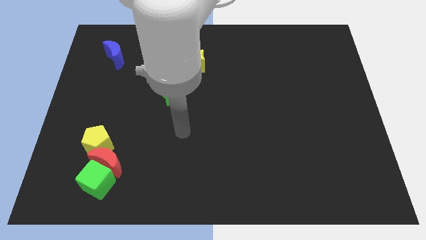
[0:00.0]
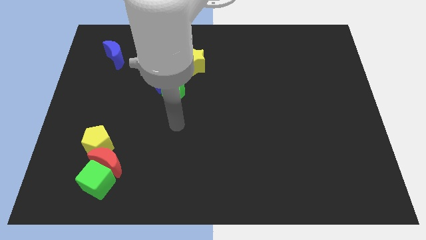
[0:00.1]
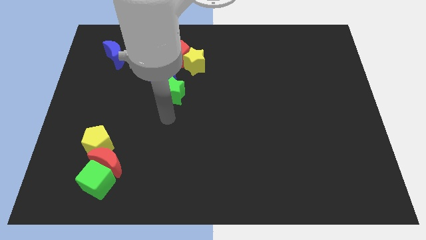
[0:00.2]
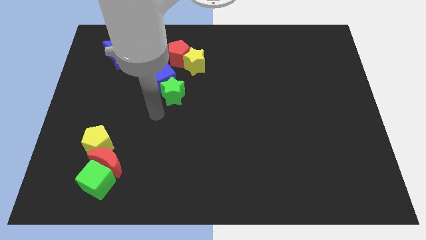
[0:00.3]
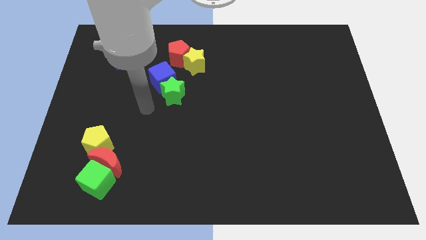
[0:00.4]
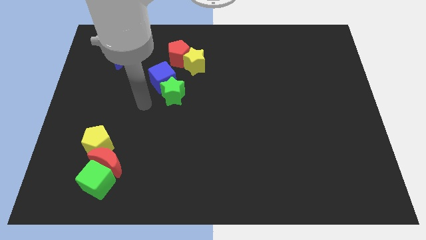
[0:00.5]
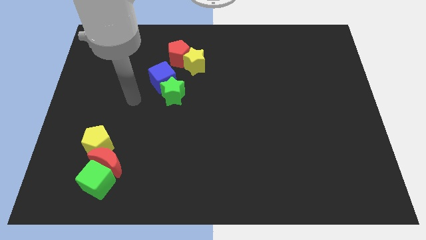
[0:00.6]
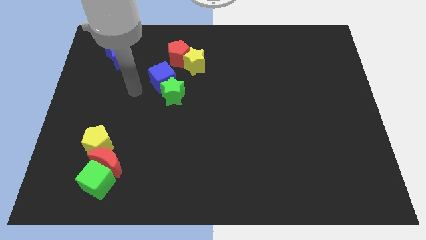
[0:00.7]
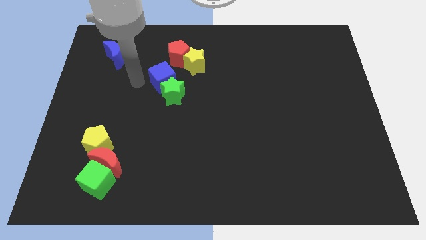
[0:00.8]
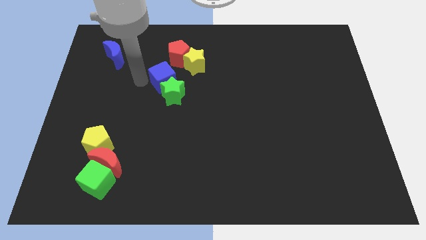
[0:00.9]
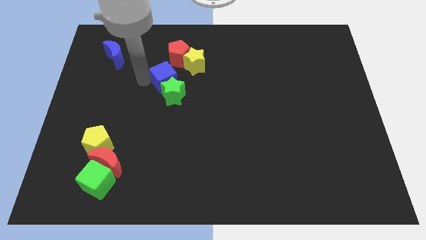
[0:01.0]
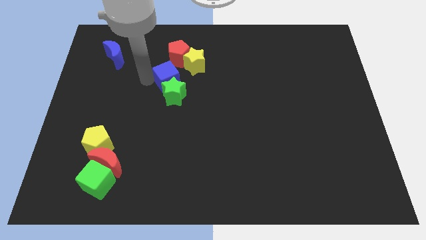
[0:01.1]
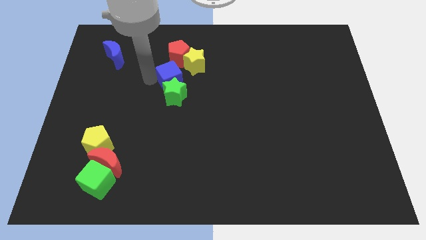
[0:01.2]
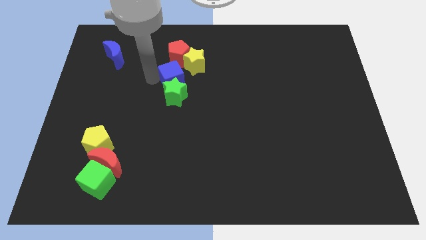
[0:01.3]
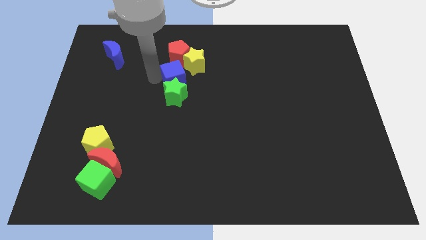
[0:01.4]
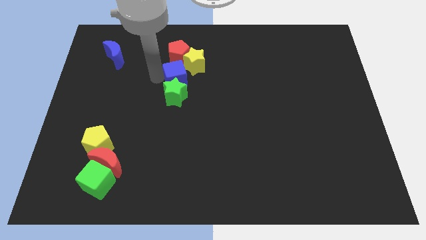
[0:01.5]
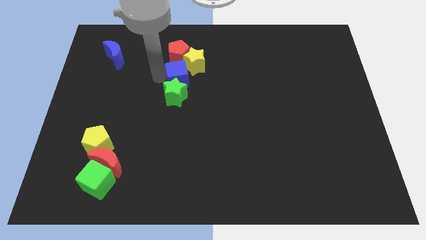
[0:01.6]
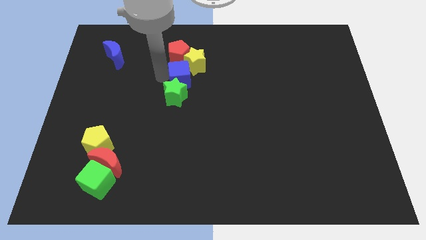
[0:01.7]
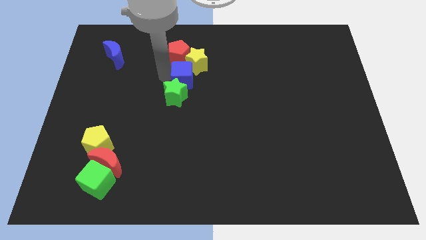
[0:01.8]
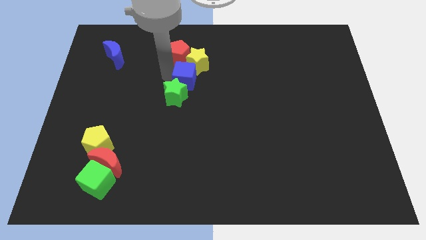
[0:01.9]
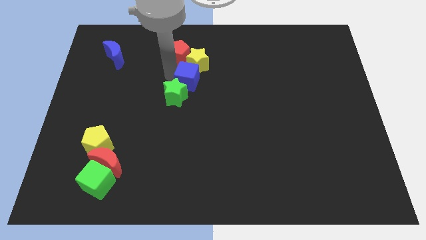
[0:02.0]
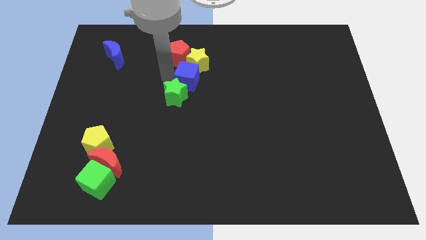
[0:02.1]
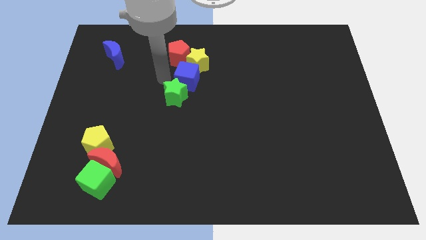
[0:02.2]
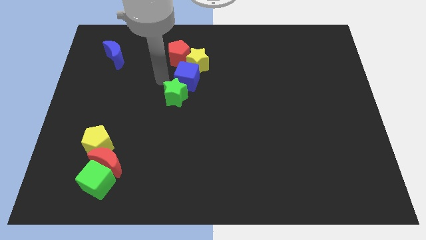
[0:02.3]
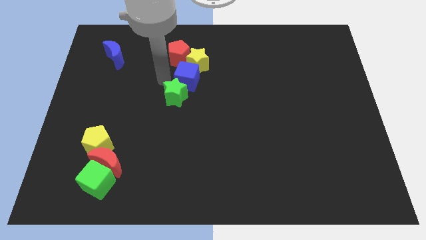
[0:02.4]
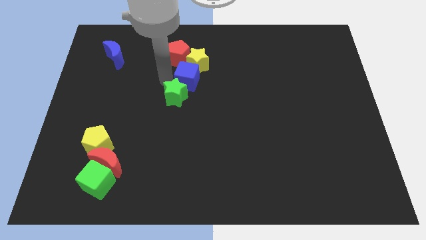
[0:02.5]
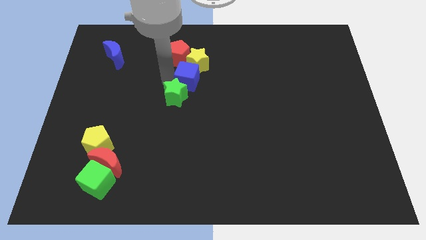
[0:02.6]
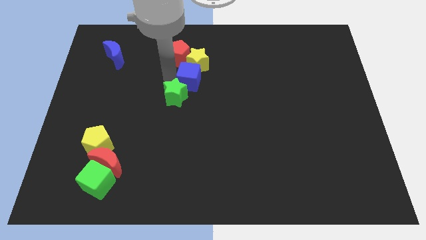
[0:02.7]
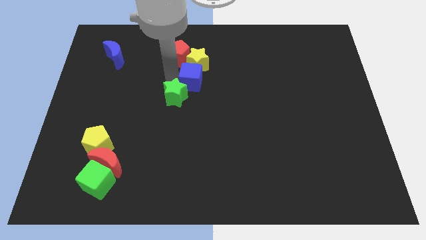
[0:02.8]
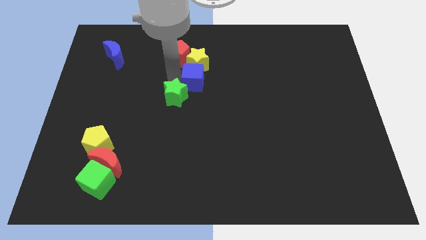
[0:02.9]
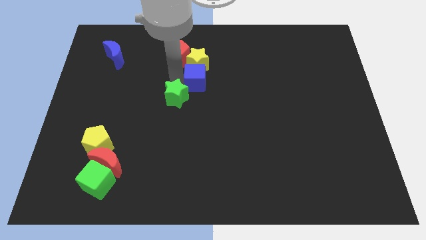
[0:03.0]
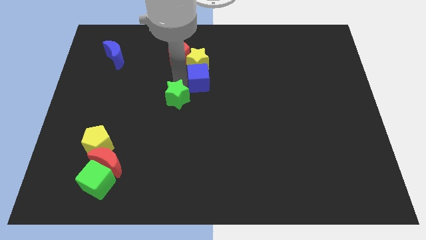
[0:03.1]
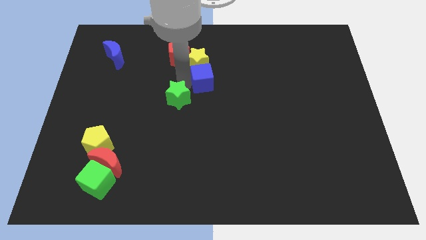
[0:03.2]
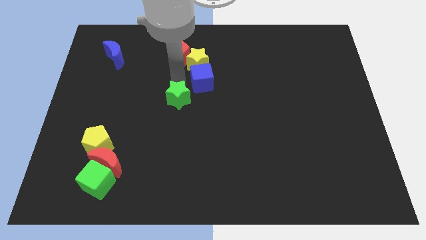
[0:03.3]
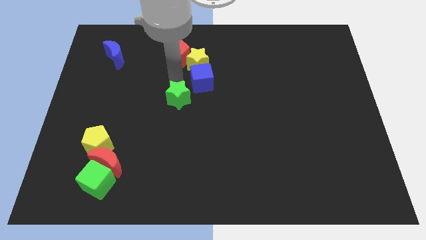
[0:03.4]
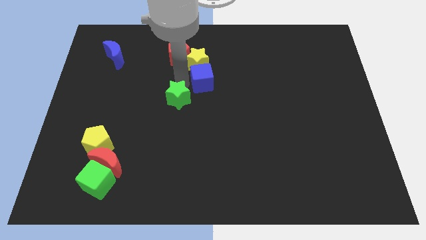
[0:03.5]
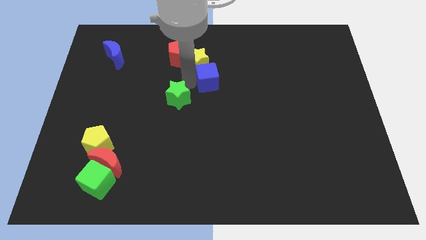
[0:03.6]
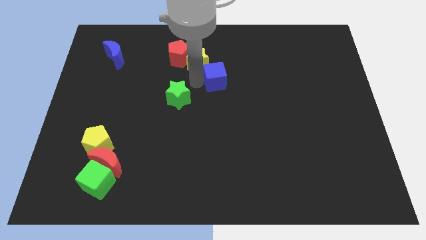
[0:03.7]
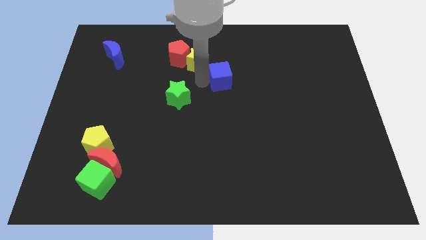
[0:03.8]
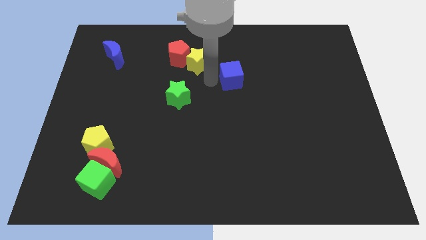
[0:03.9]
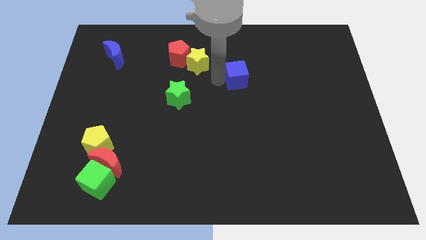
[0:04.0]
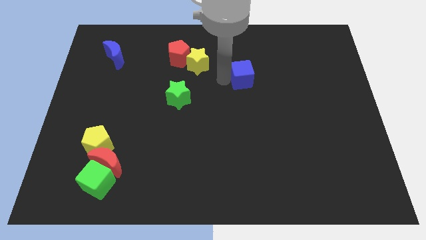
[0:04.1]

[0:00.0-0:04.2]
move the blue cube right

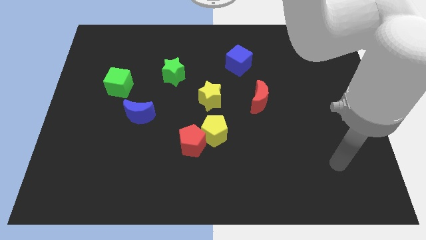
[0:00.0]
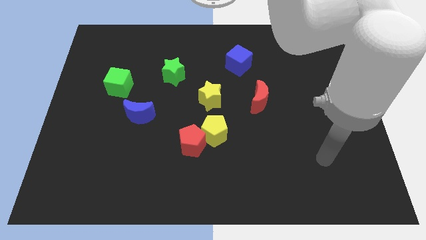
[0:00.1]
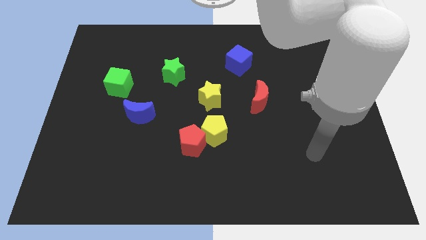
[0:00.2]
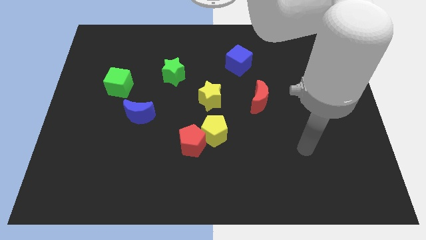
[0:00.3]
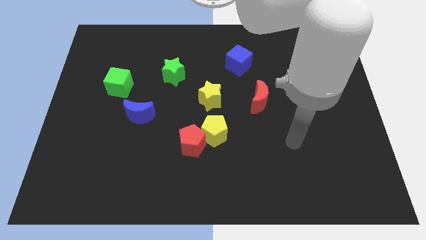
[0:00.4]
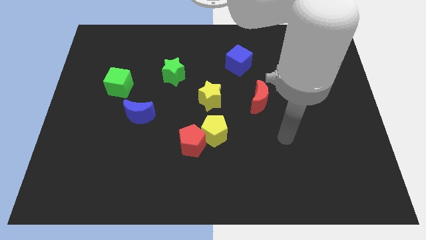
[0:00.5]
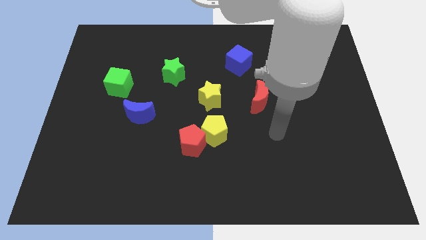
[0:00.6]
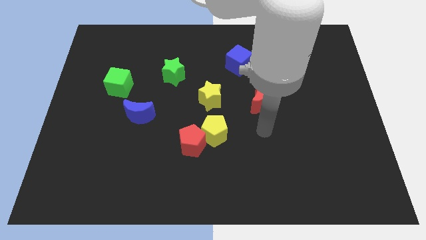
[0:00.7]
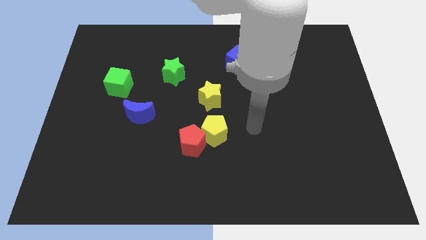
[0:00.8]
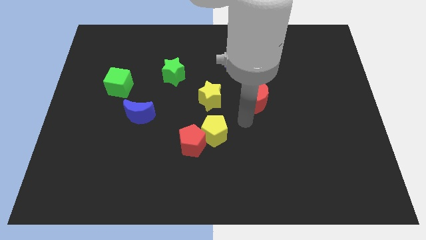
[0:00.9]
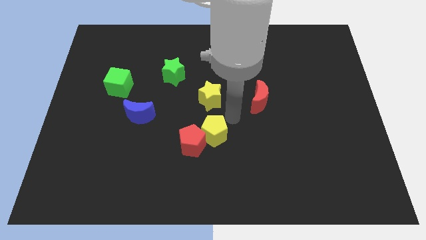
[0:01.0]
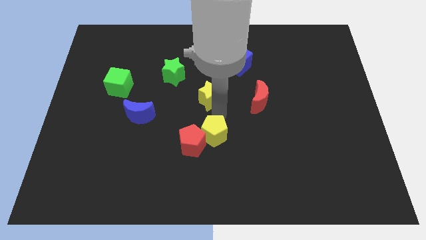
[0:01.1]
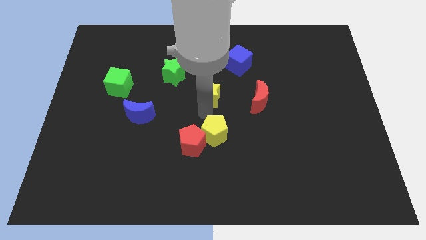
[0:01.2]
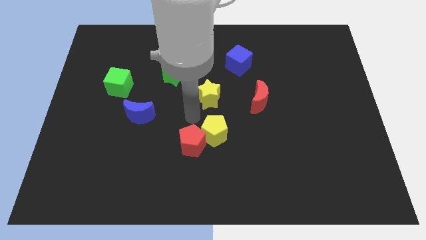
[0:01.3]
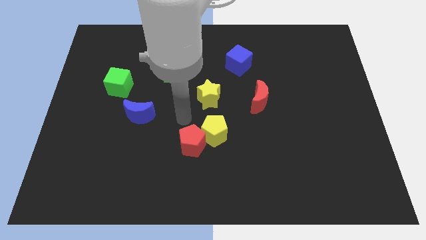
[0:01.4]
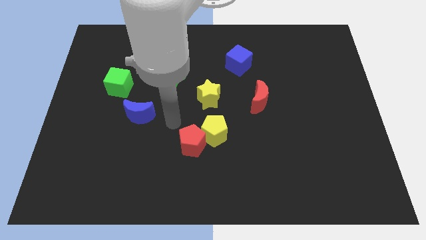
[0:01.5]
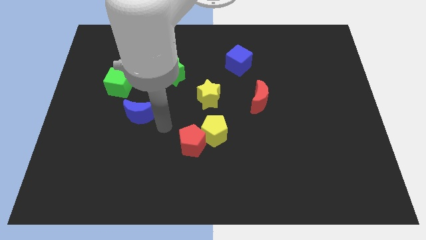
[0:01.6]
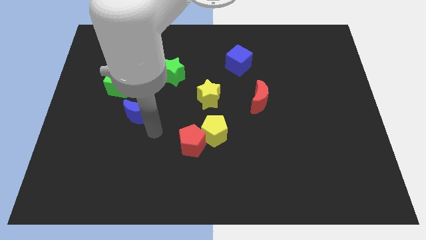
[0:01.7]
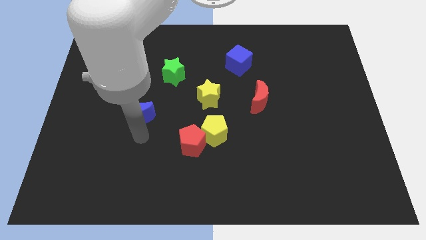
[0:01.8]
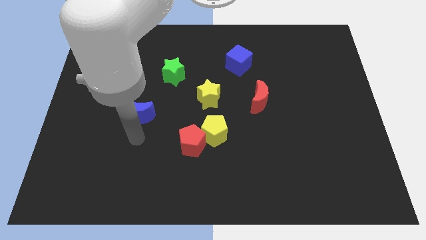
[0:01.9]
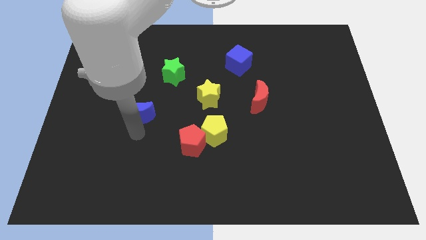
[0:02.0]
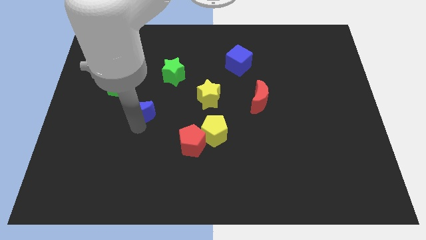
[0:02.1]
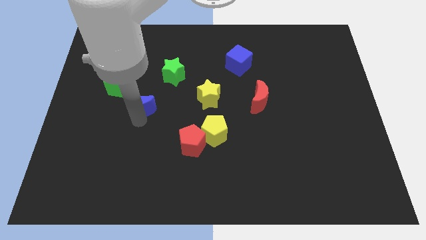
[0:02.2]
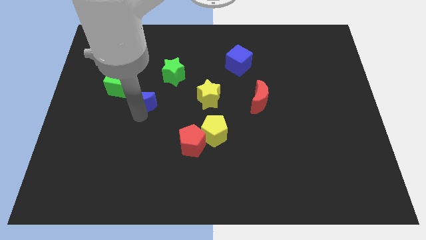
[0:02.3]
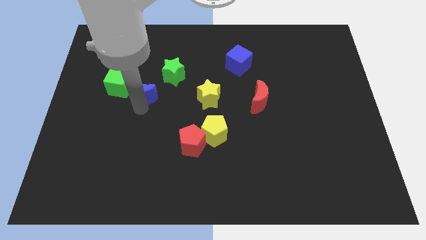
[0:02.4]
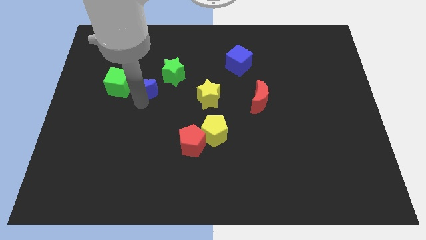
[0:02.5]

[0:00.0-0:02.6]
move the blue moon slightly up

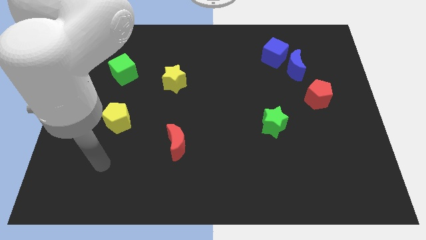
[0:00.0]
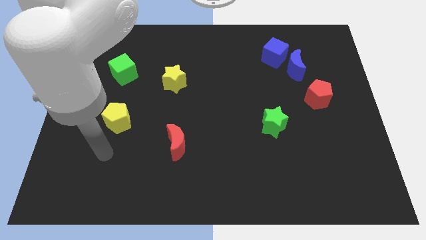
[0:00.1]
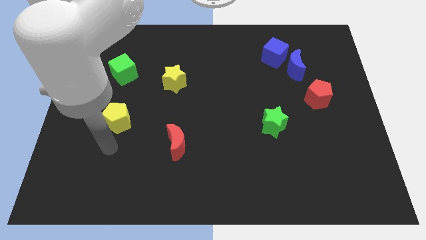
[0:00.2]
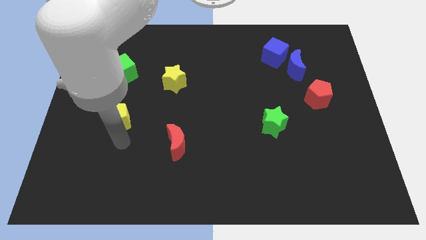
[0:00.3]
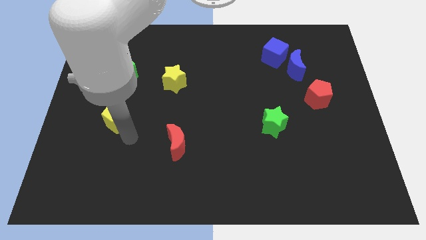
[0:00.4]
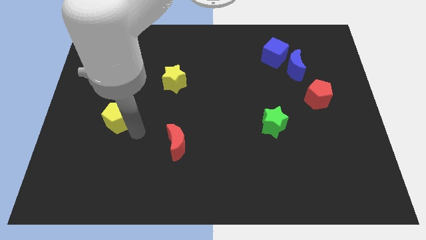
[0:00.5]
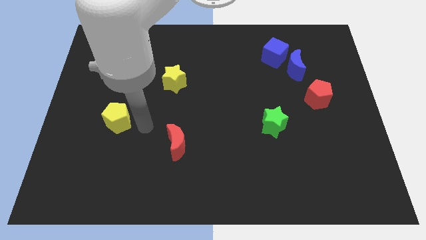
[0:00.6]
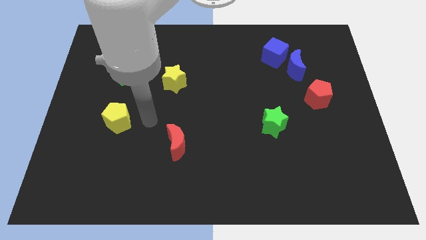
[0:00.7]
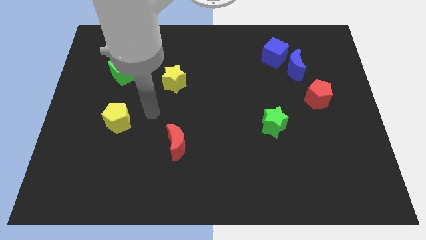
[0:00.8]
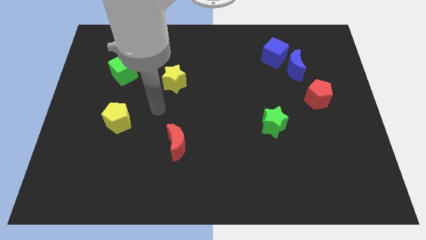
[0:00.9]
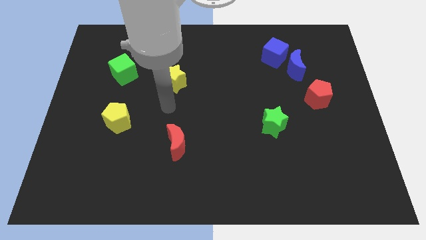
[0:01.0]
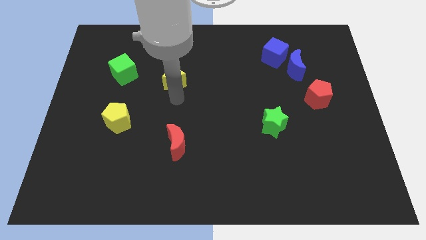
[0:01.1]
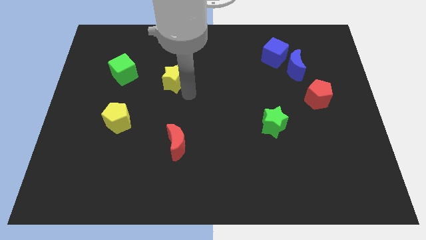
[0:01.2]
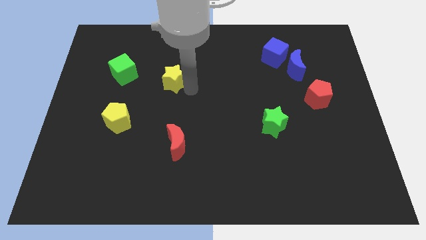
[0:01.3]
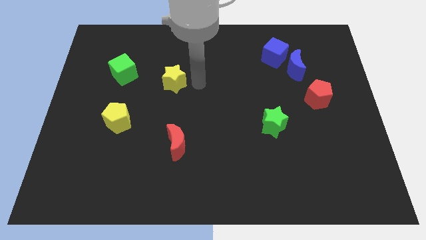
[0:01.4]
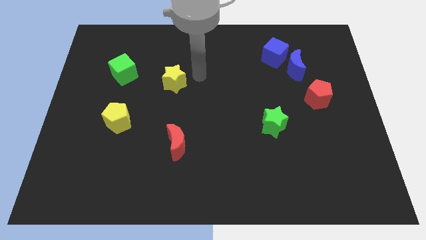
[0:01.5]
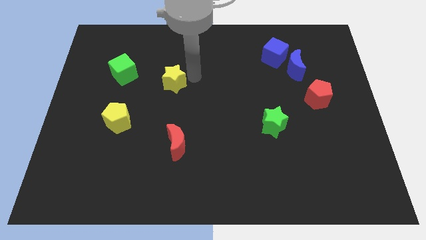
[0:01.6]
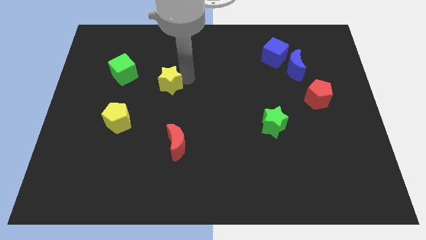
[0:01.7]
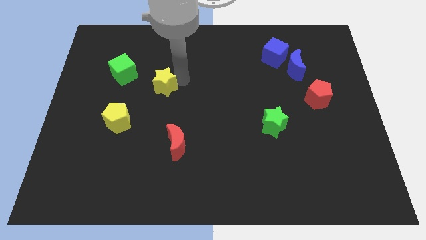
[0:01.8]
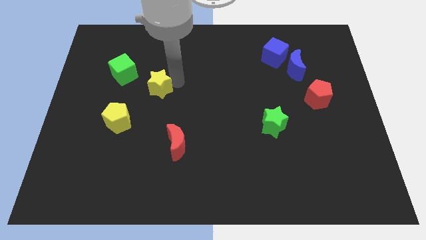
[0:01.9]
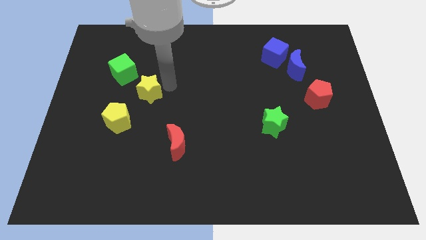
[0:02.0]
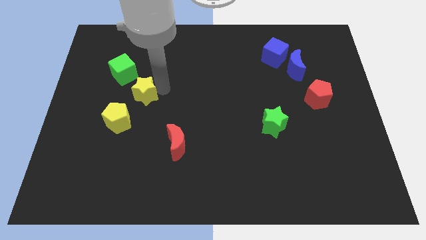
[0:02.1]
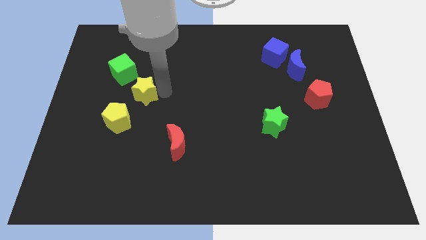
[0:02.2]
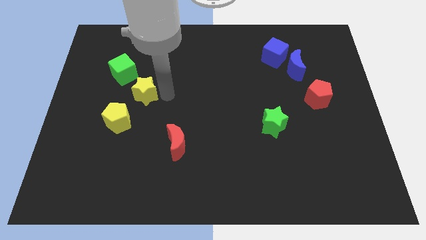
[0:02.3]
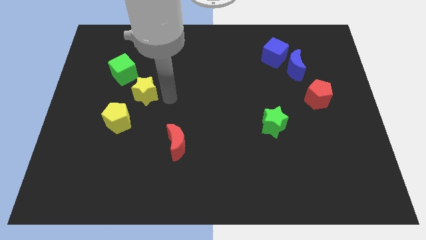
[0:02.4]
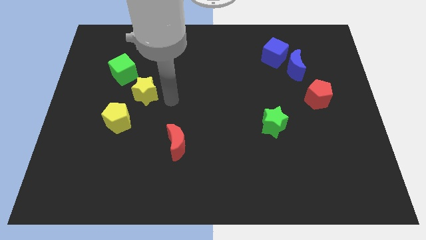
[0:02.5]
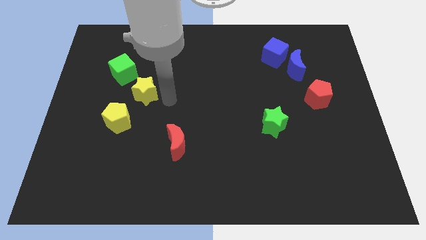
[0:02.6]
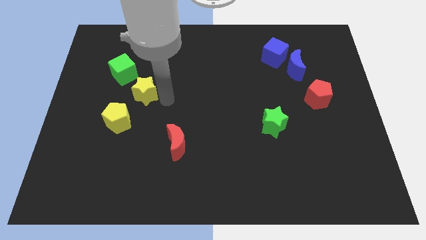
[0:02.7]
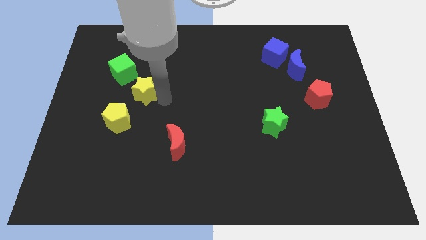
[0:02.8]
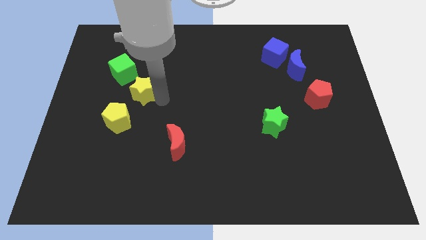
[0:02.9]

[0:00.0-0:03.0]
push the yellow star left a little bit
